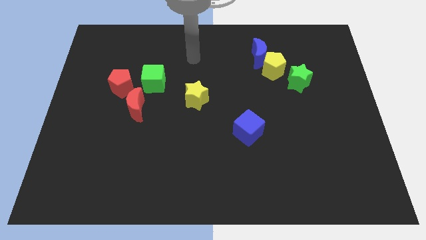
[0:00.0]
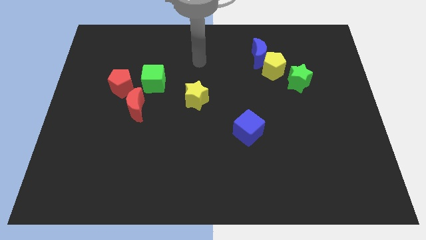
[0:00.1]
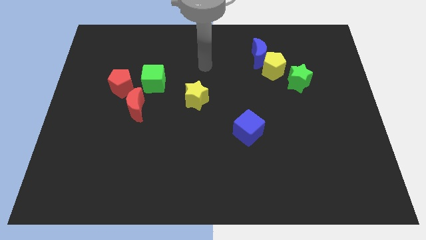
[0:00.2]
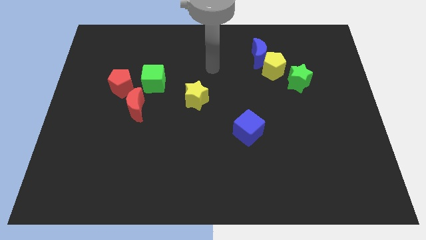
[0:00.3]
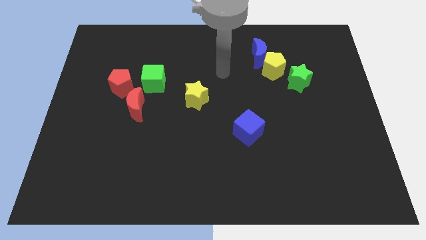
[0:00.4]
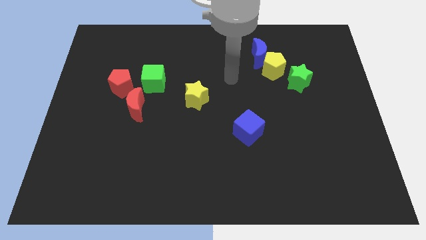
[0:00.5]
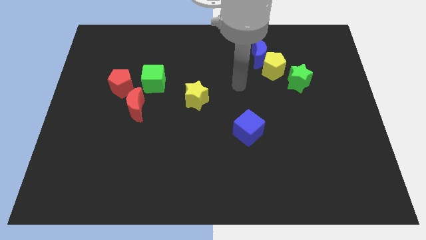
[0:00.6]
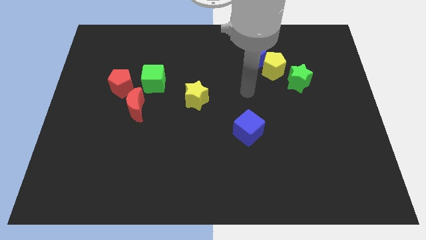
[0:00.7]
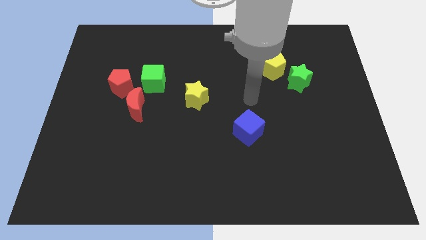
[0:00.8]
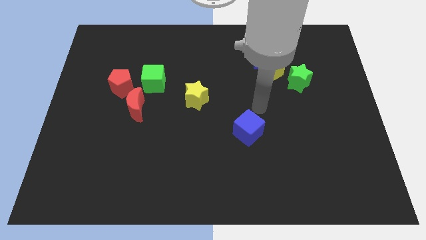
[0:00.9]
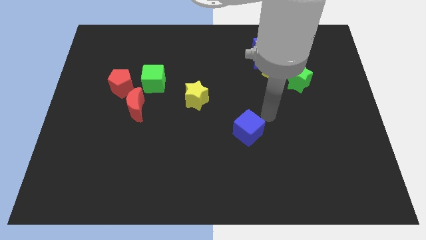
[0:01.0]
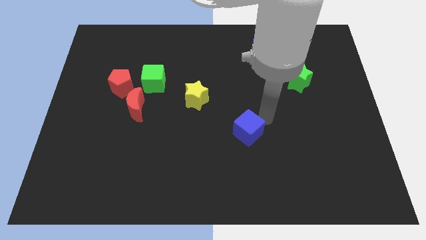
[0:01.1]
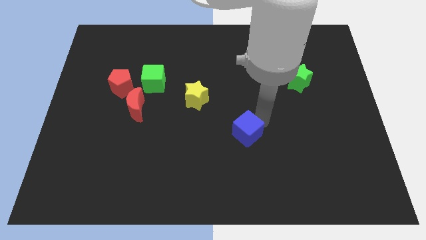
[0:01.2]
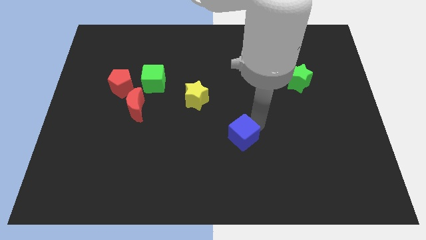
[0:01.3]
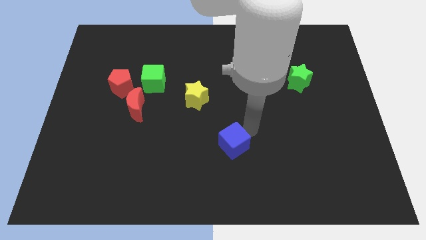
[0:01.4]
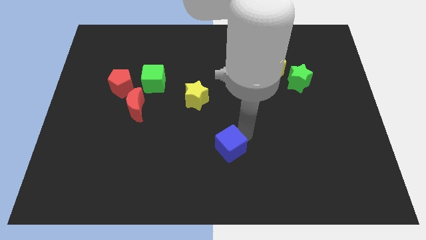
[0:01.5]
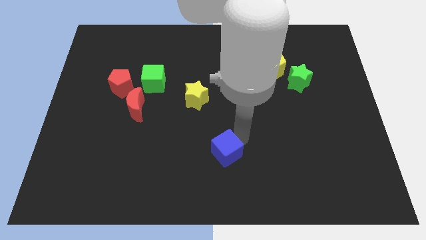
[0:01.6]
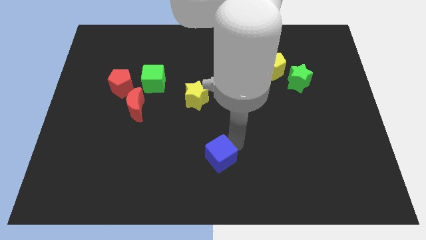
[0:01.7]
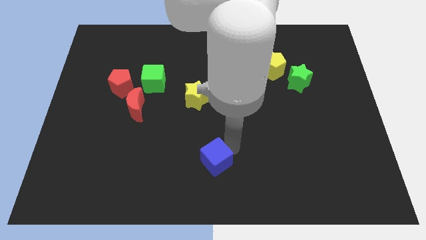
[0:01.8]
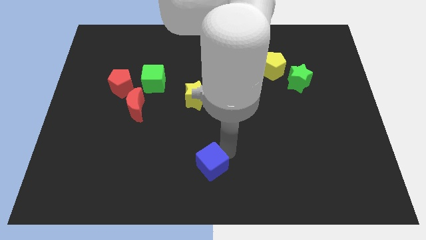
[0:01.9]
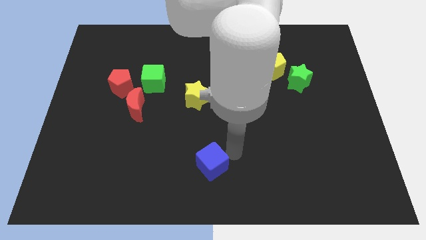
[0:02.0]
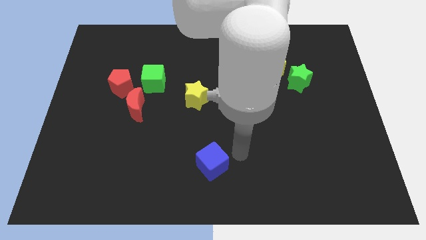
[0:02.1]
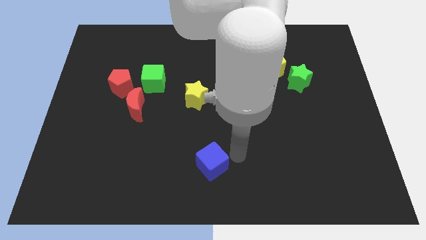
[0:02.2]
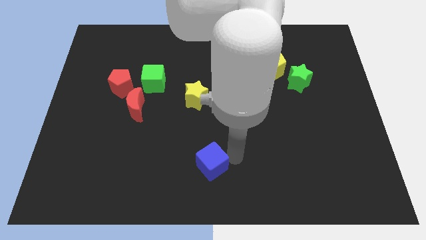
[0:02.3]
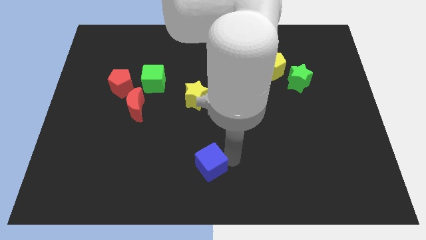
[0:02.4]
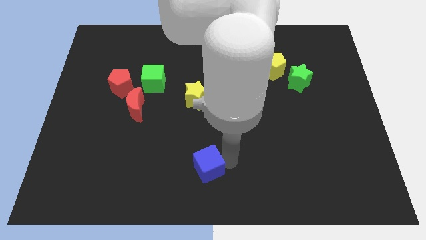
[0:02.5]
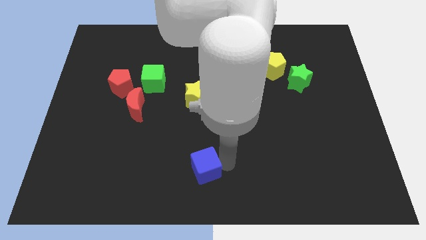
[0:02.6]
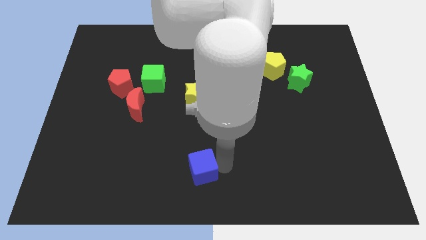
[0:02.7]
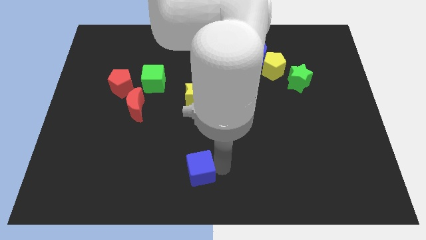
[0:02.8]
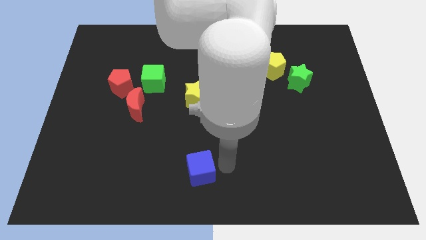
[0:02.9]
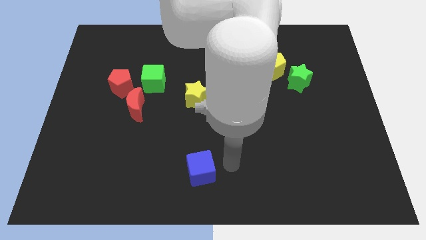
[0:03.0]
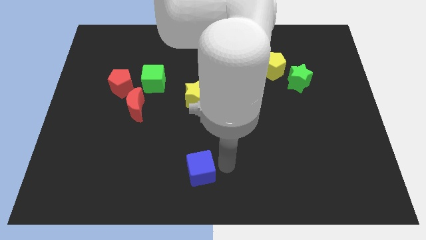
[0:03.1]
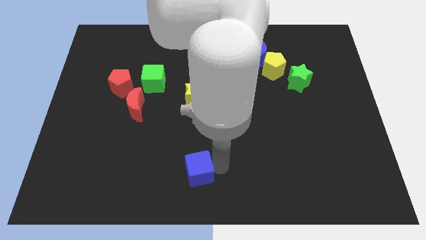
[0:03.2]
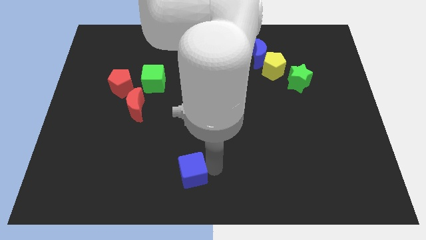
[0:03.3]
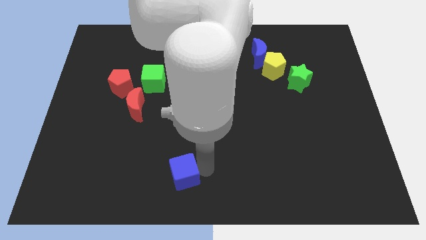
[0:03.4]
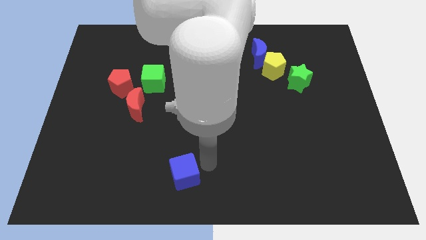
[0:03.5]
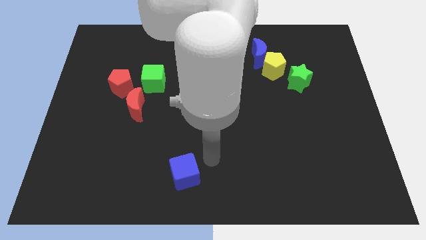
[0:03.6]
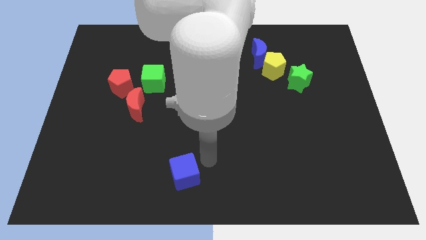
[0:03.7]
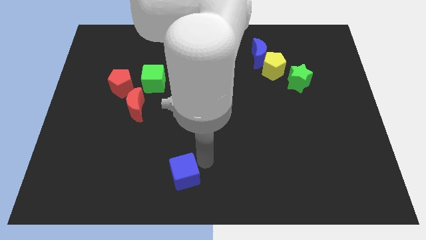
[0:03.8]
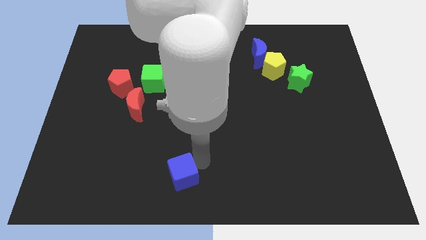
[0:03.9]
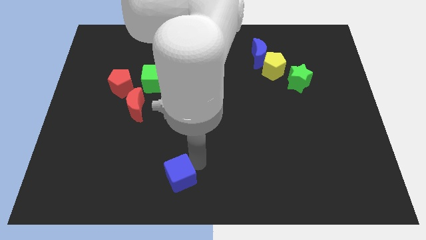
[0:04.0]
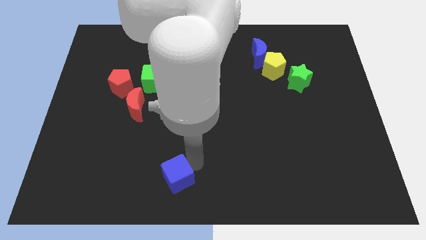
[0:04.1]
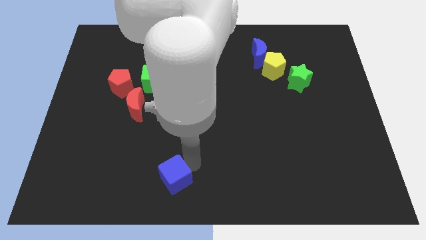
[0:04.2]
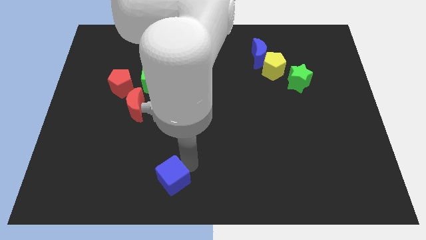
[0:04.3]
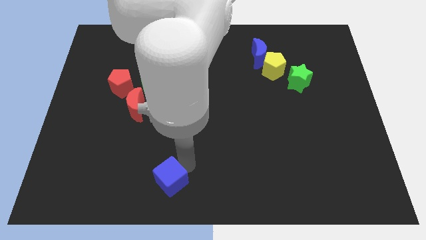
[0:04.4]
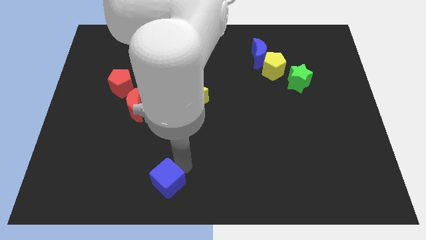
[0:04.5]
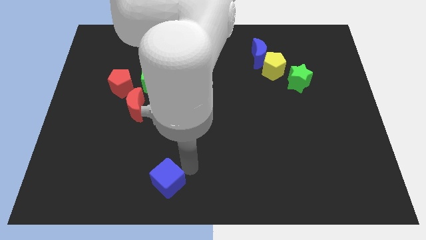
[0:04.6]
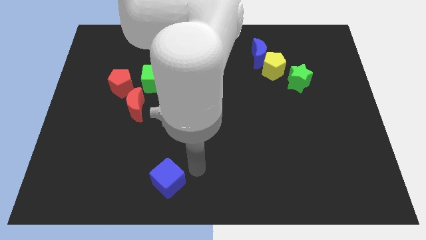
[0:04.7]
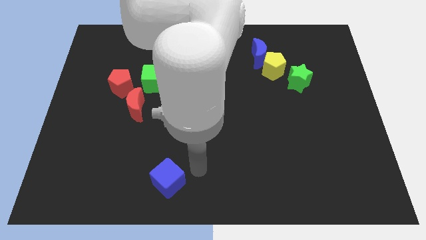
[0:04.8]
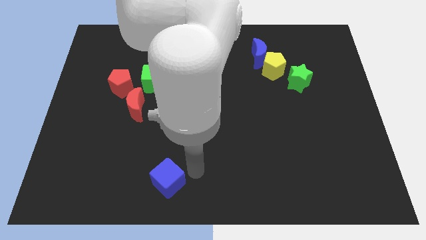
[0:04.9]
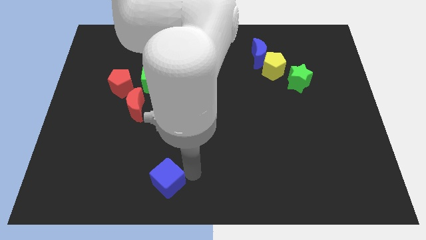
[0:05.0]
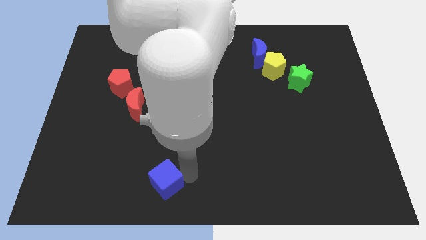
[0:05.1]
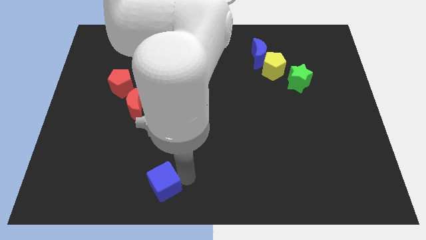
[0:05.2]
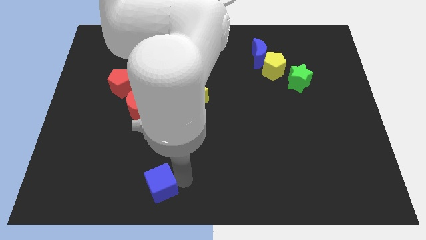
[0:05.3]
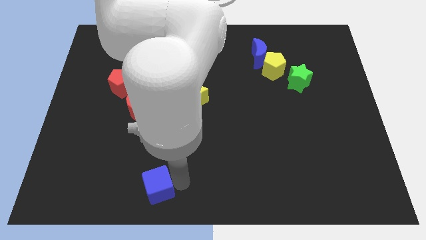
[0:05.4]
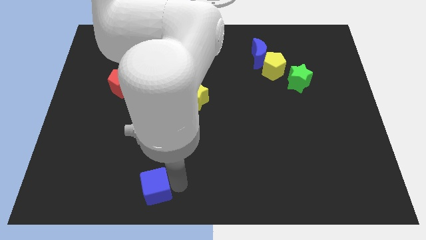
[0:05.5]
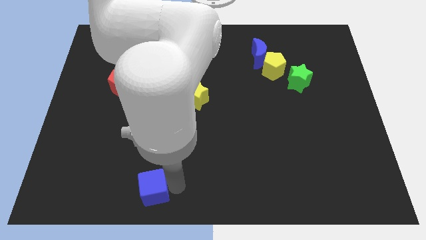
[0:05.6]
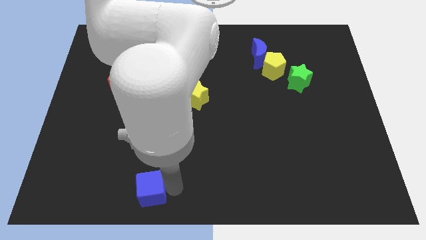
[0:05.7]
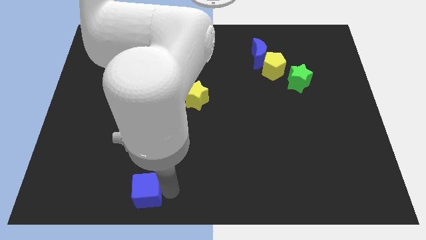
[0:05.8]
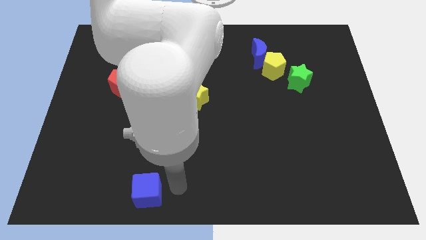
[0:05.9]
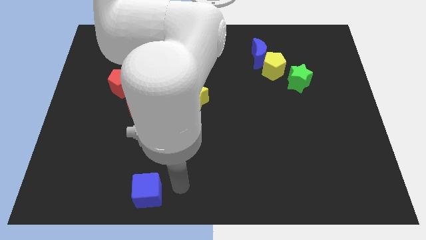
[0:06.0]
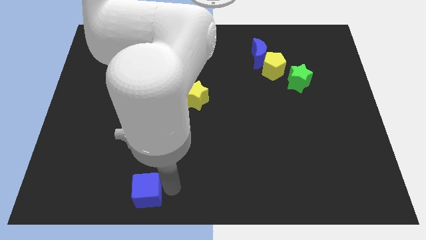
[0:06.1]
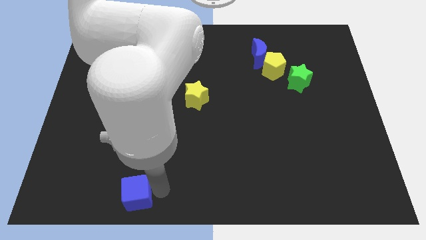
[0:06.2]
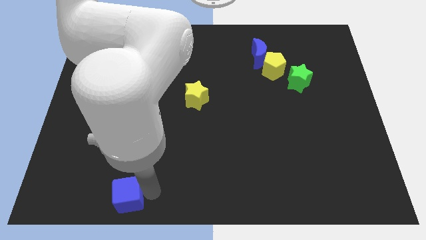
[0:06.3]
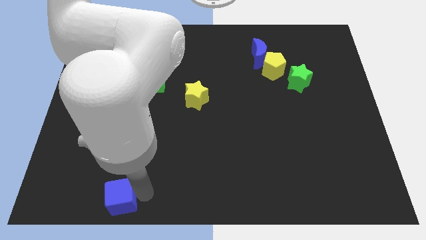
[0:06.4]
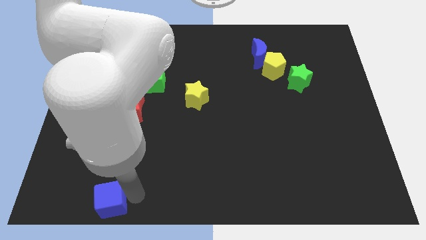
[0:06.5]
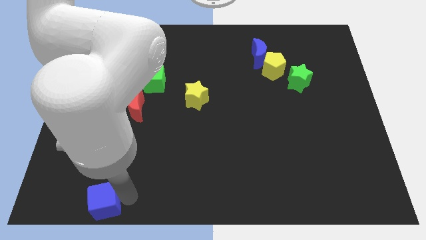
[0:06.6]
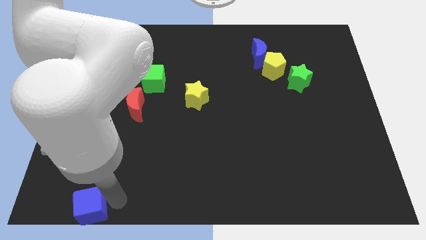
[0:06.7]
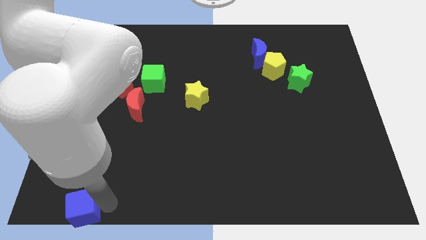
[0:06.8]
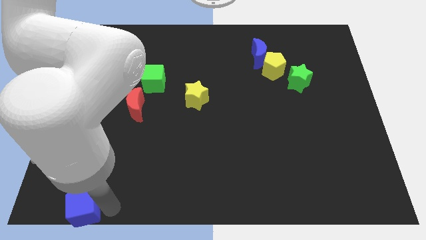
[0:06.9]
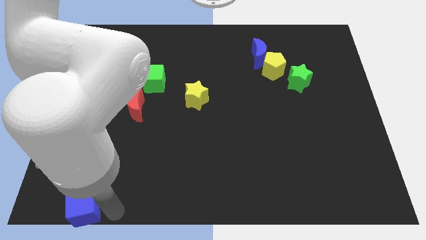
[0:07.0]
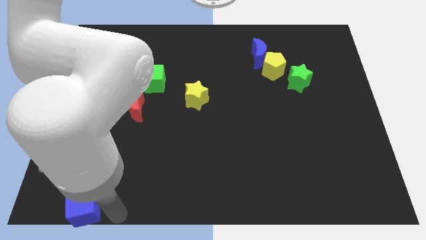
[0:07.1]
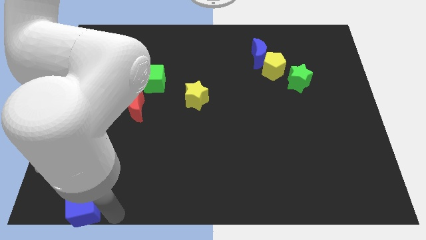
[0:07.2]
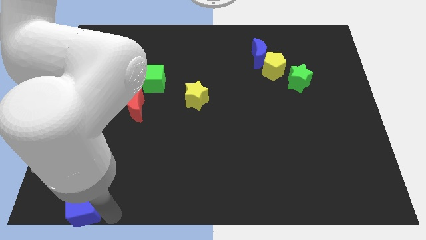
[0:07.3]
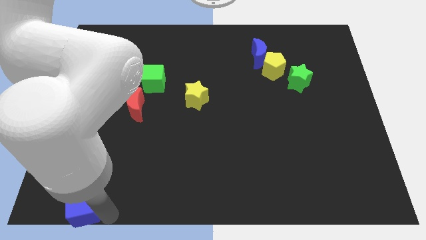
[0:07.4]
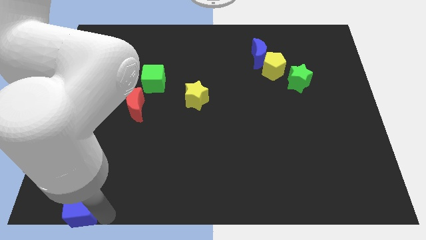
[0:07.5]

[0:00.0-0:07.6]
move the blue cube to the lower left corner
